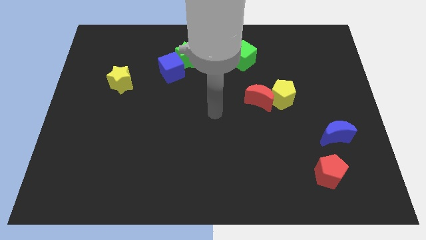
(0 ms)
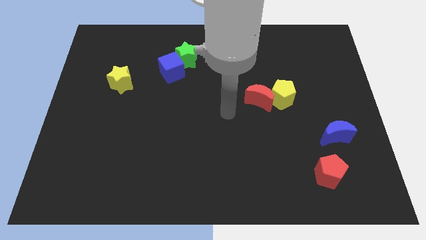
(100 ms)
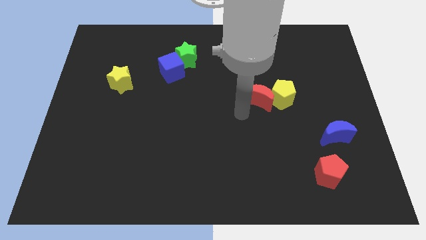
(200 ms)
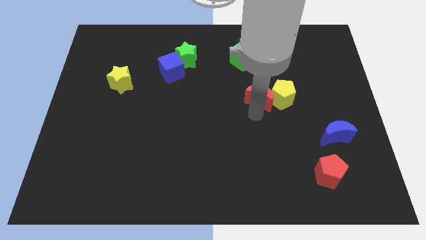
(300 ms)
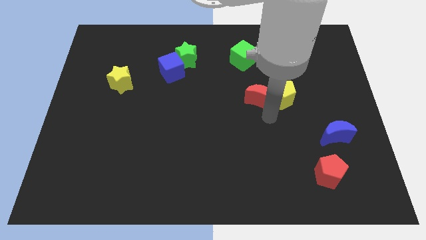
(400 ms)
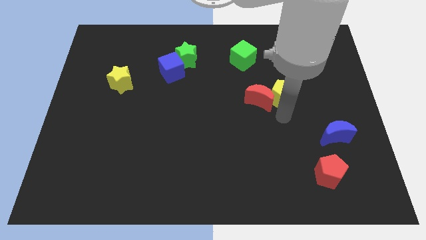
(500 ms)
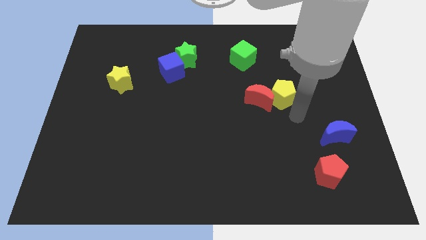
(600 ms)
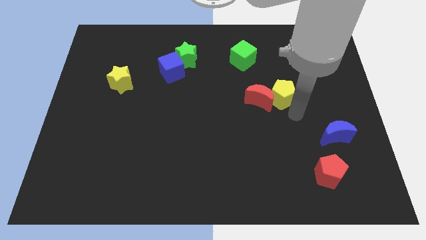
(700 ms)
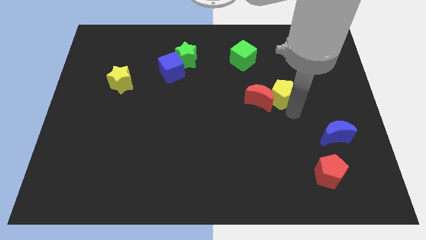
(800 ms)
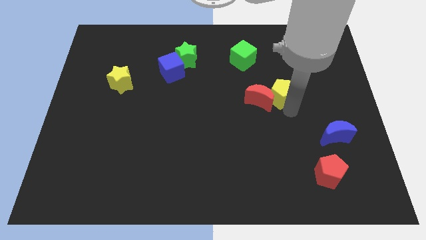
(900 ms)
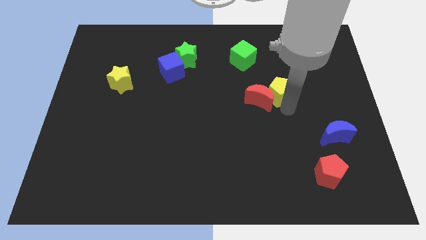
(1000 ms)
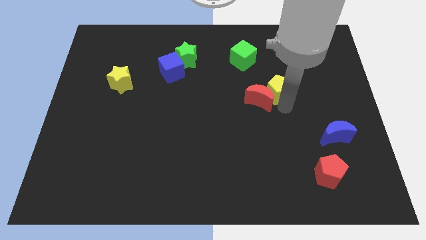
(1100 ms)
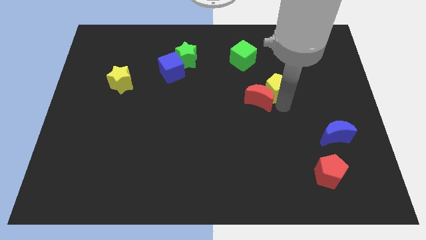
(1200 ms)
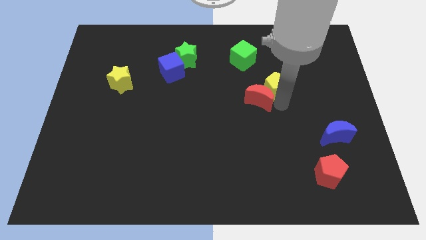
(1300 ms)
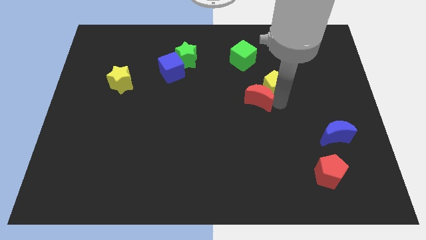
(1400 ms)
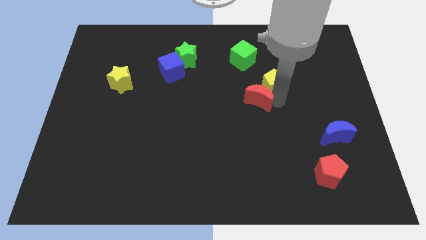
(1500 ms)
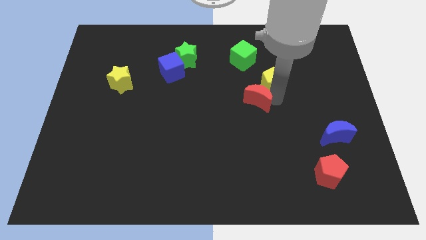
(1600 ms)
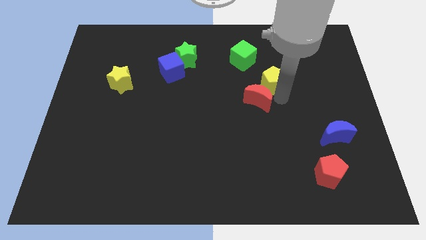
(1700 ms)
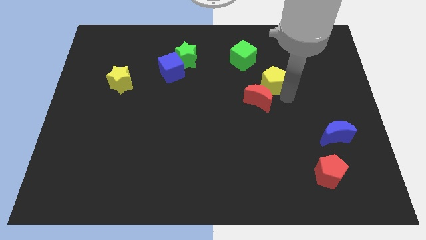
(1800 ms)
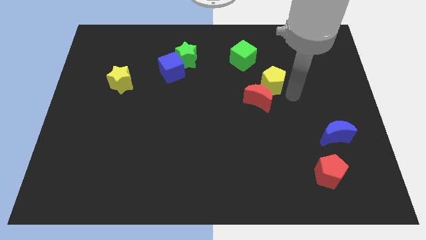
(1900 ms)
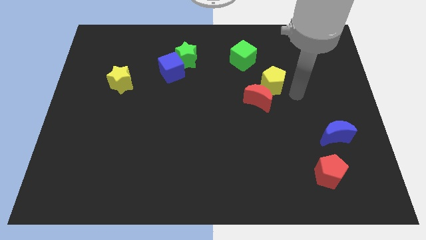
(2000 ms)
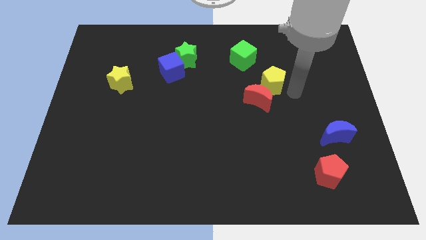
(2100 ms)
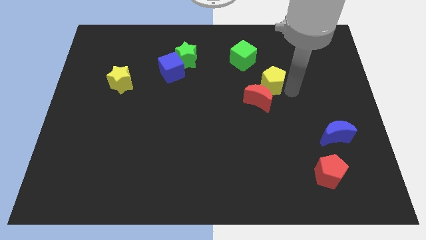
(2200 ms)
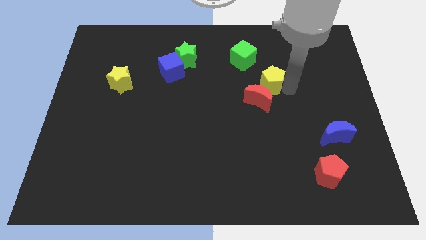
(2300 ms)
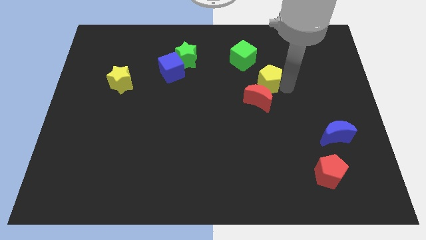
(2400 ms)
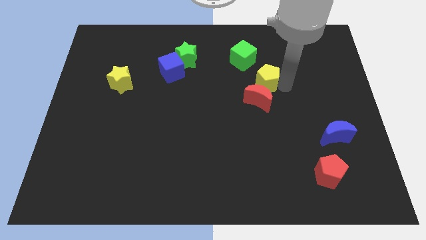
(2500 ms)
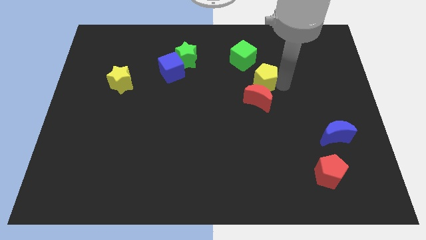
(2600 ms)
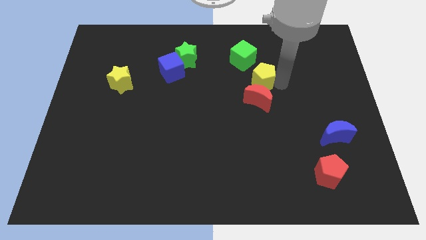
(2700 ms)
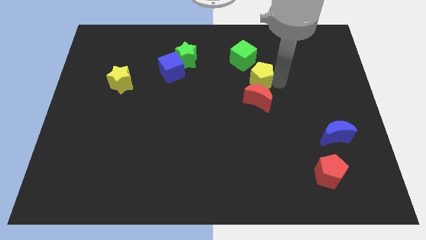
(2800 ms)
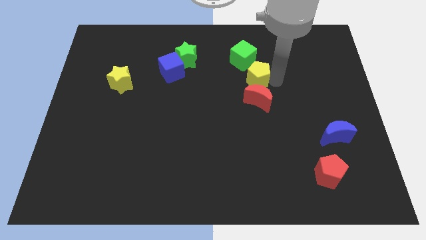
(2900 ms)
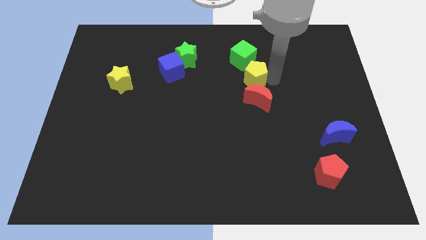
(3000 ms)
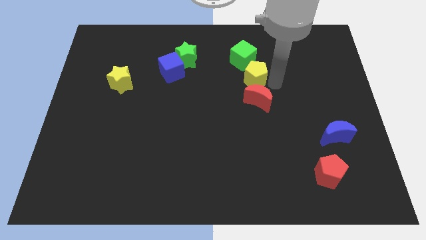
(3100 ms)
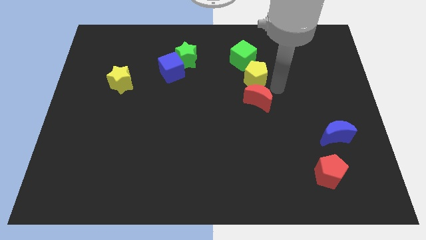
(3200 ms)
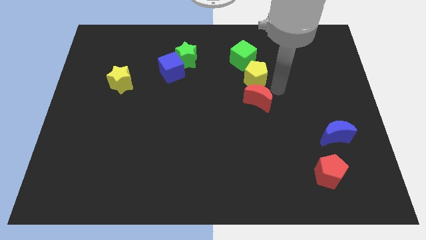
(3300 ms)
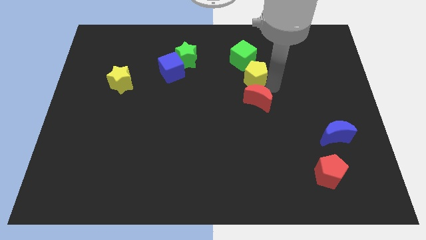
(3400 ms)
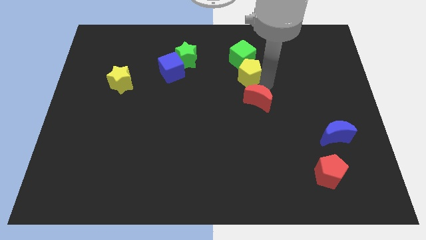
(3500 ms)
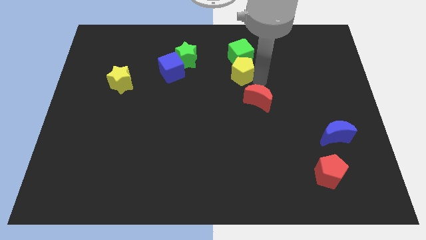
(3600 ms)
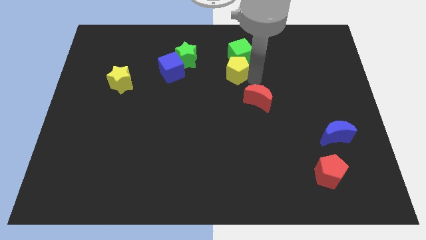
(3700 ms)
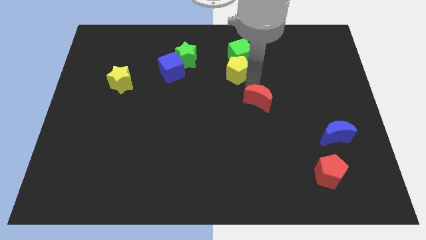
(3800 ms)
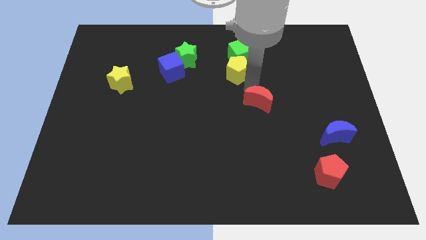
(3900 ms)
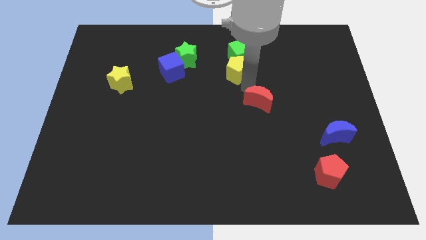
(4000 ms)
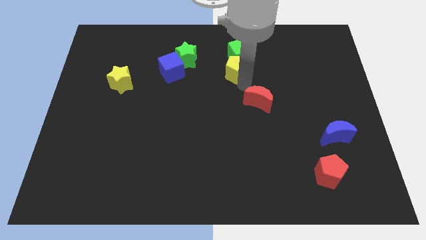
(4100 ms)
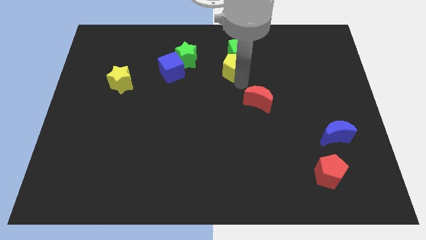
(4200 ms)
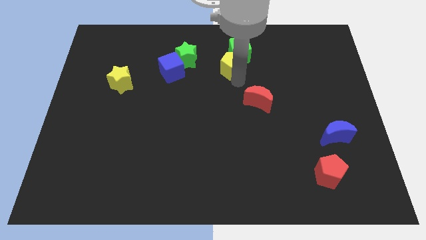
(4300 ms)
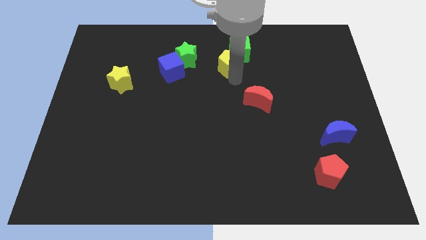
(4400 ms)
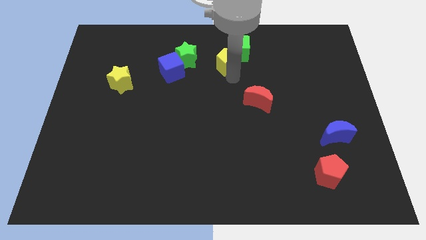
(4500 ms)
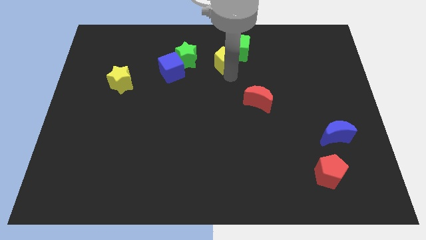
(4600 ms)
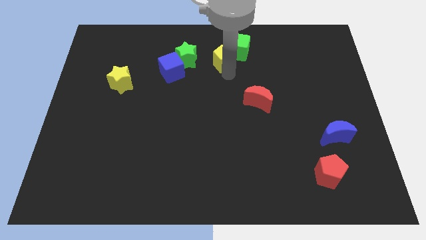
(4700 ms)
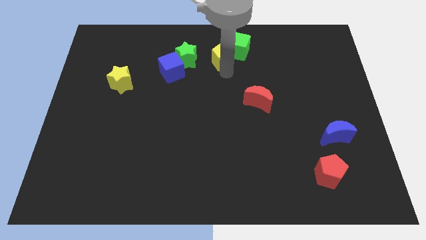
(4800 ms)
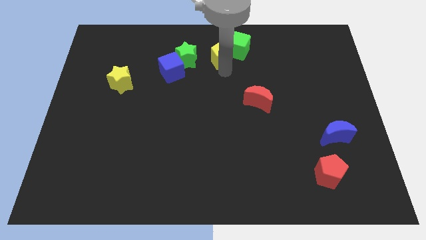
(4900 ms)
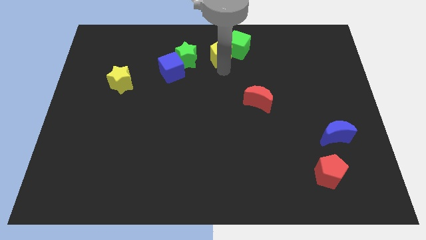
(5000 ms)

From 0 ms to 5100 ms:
slide the yellow pentagon to the towards your base

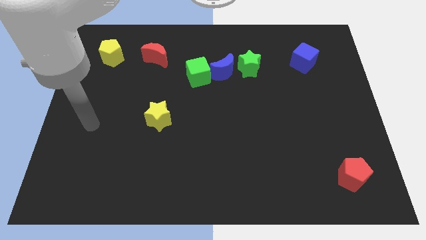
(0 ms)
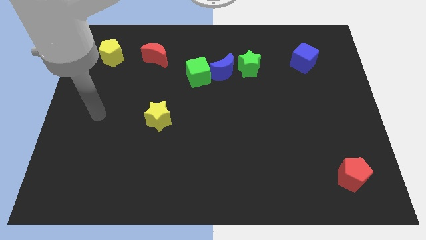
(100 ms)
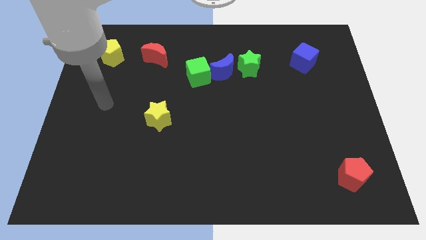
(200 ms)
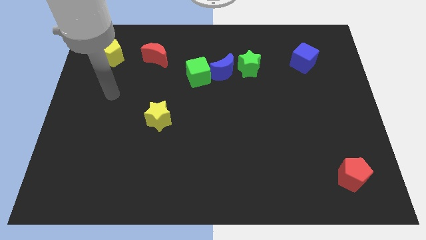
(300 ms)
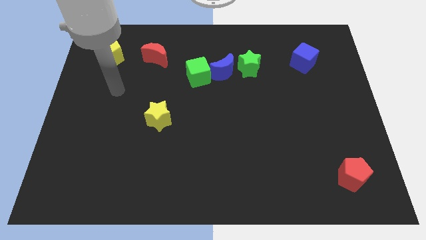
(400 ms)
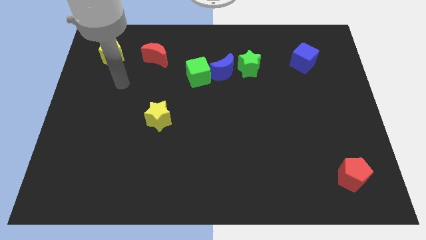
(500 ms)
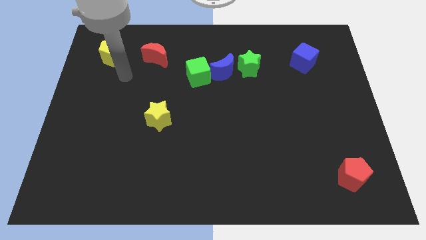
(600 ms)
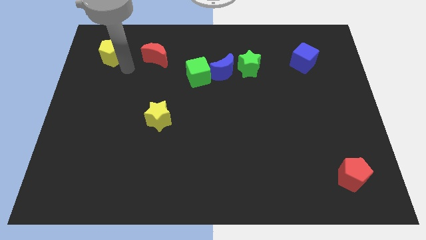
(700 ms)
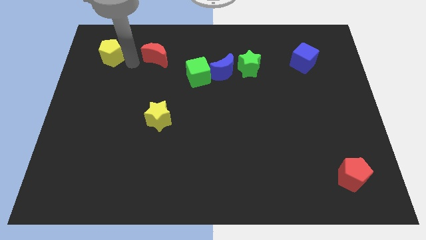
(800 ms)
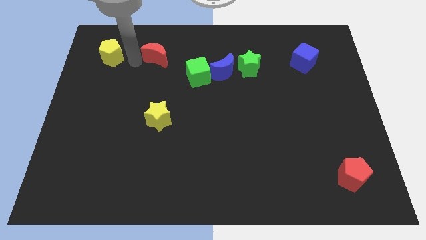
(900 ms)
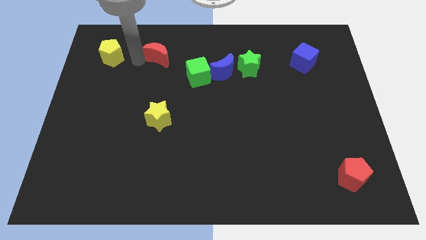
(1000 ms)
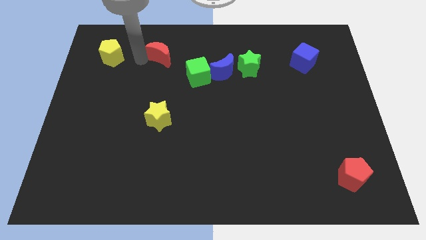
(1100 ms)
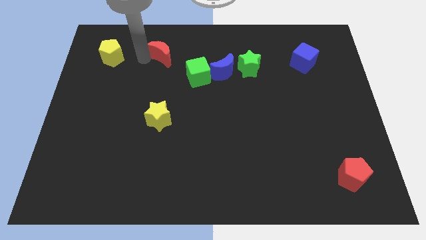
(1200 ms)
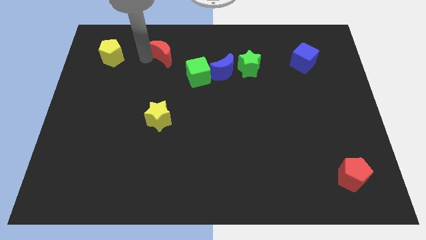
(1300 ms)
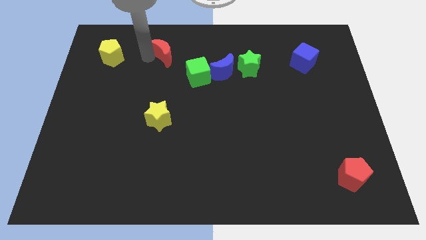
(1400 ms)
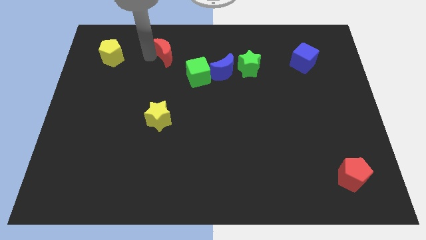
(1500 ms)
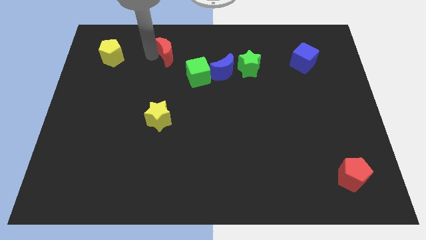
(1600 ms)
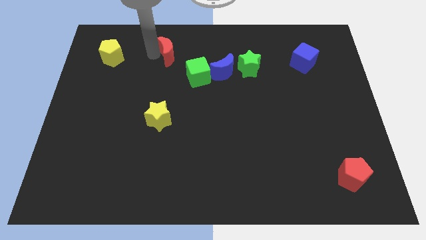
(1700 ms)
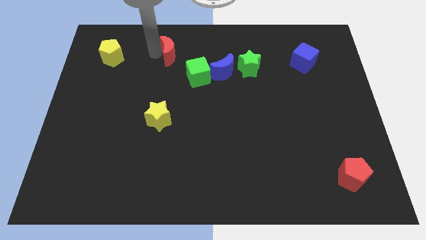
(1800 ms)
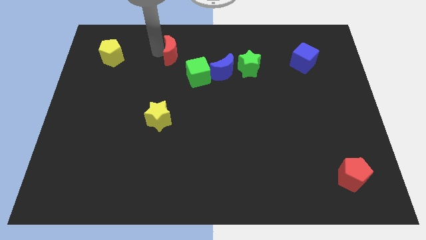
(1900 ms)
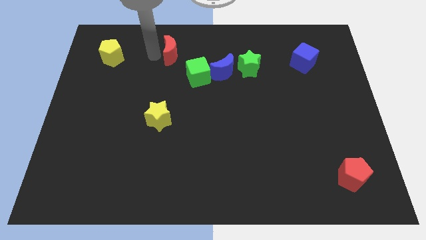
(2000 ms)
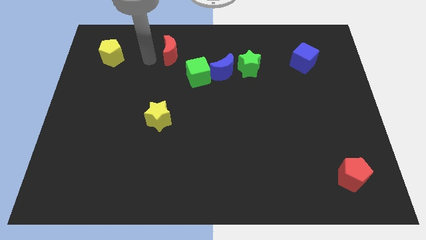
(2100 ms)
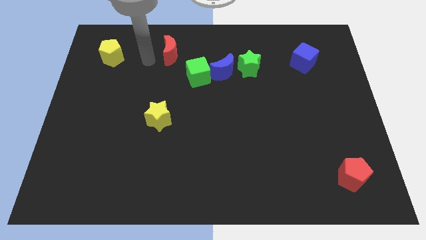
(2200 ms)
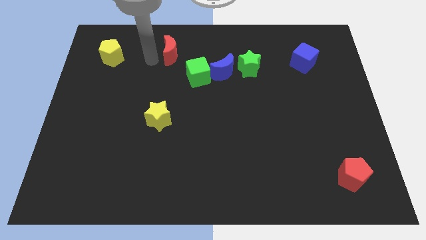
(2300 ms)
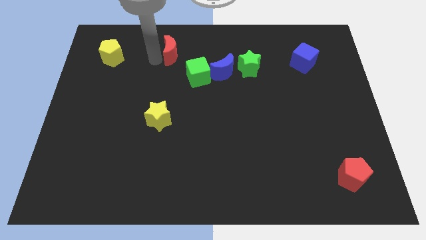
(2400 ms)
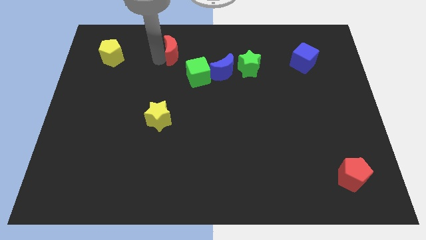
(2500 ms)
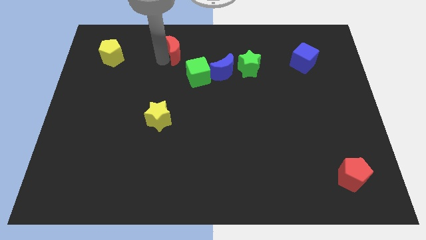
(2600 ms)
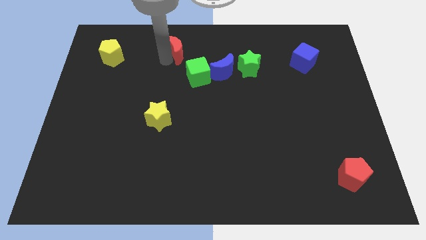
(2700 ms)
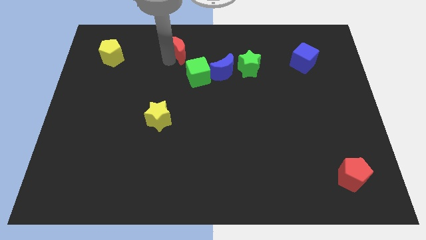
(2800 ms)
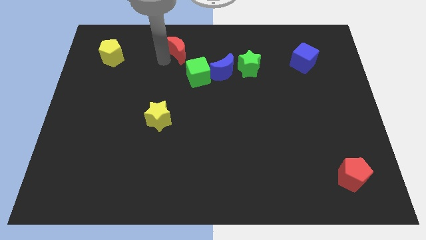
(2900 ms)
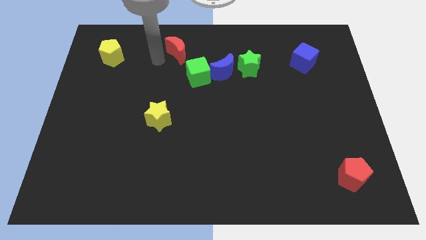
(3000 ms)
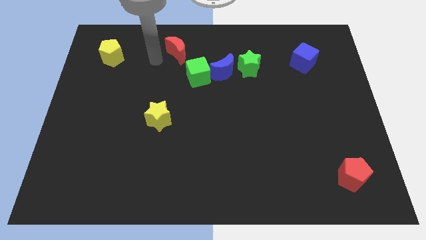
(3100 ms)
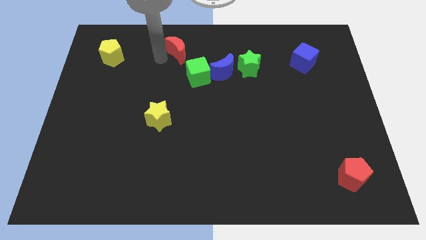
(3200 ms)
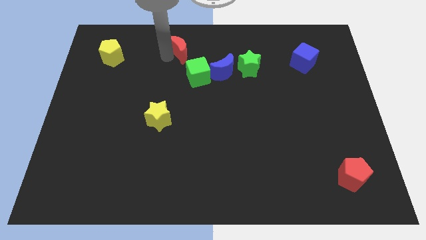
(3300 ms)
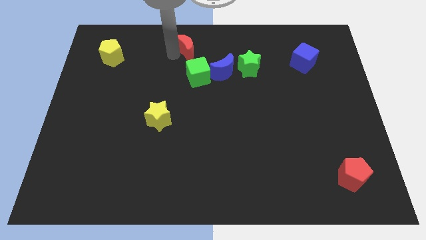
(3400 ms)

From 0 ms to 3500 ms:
slide the red moon to the top side
